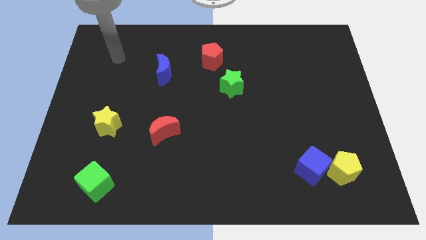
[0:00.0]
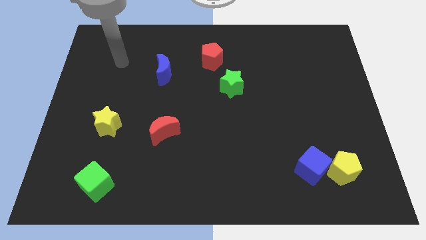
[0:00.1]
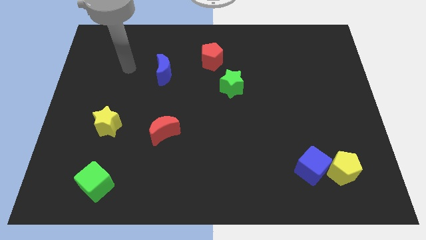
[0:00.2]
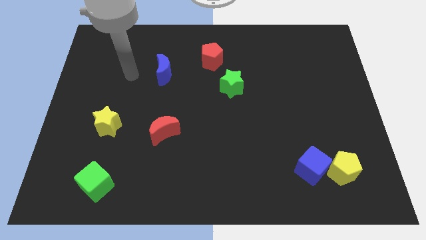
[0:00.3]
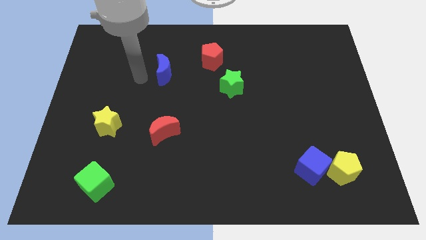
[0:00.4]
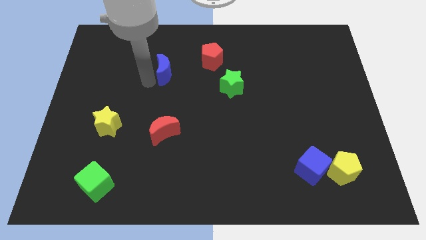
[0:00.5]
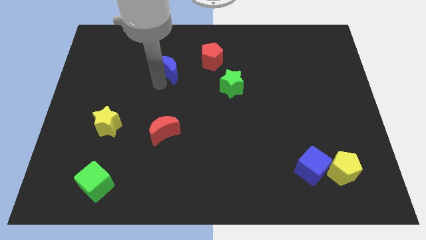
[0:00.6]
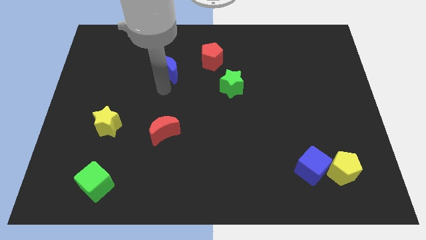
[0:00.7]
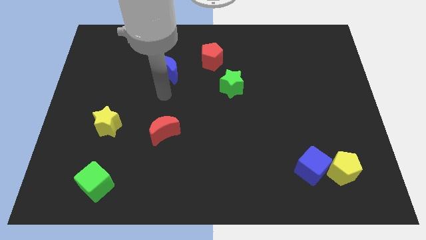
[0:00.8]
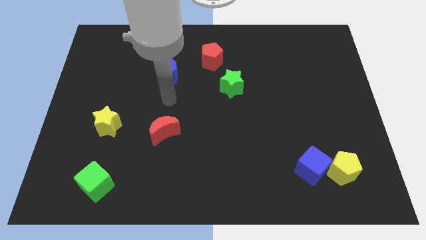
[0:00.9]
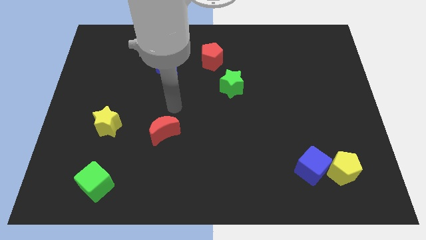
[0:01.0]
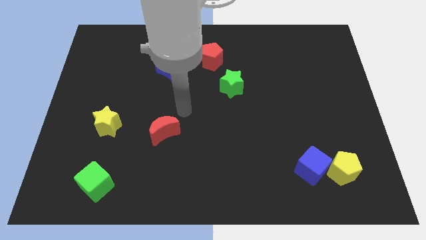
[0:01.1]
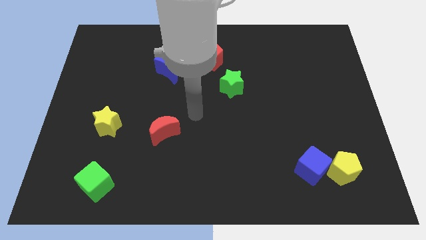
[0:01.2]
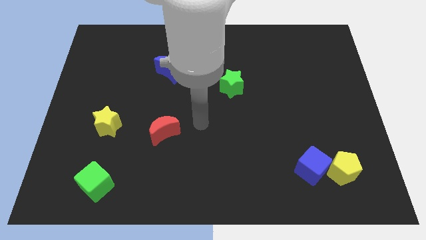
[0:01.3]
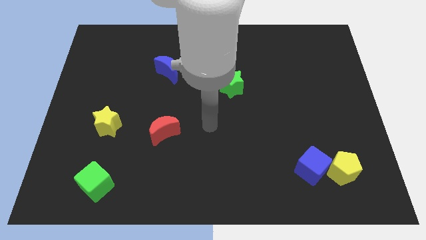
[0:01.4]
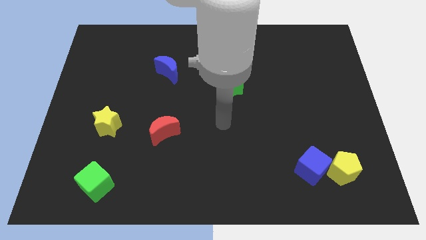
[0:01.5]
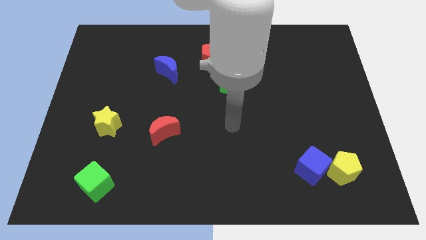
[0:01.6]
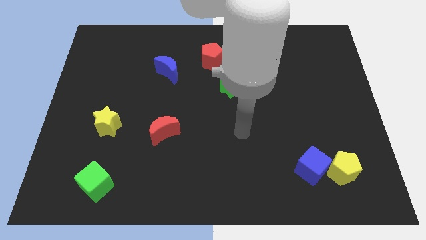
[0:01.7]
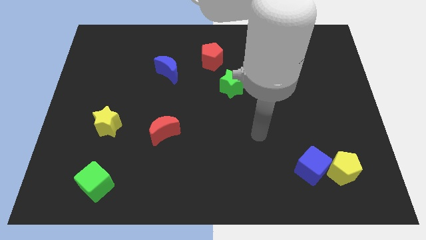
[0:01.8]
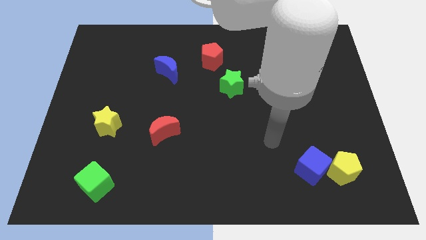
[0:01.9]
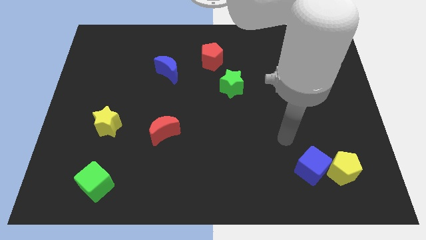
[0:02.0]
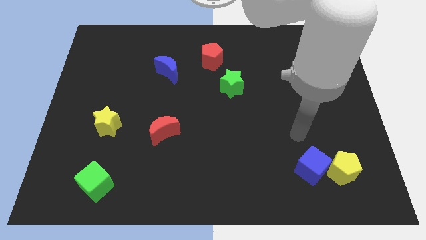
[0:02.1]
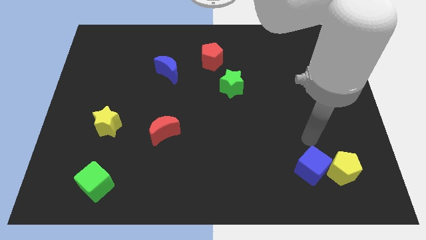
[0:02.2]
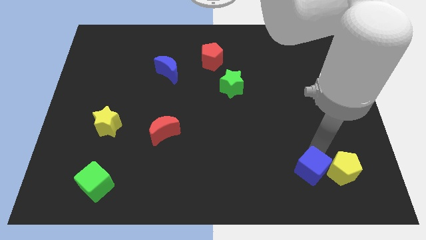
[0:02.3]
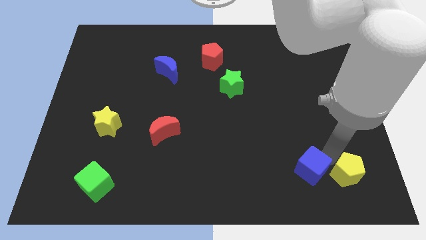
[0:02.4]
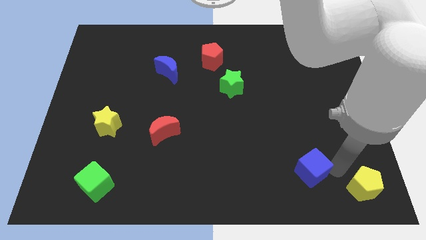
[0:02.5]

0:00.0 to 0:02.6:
move the blue cube away from the yellow pentagon

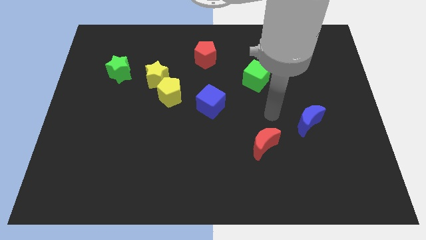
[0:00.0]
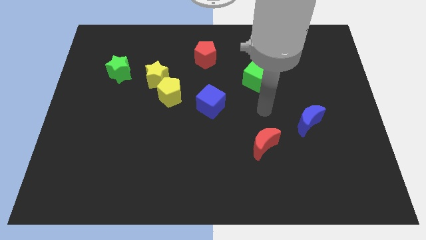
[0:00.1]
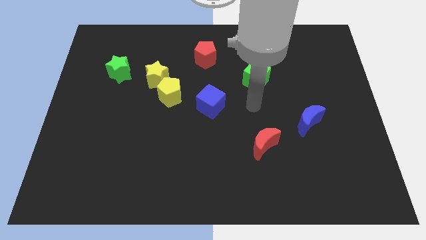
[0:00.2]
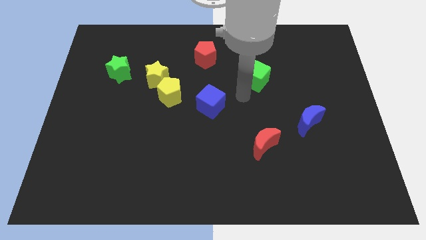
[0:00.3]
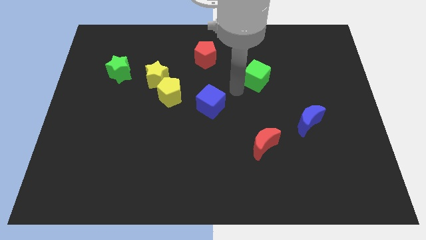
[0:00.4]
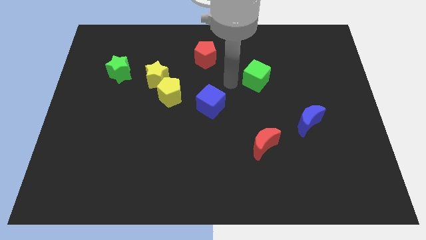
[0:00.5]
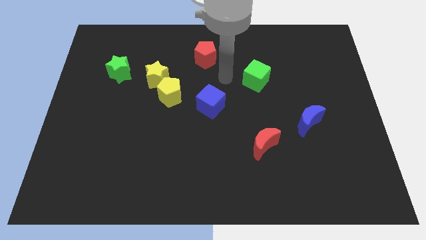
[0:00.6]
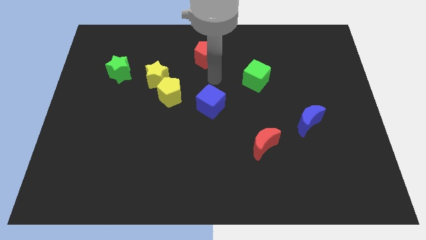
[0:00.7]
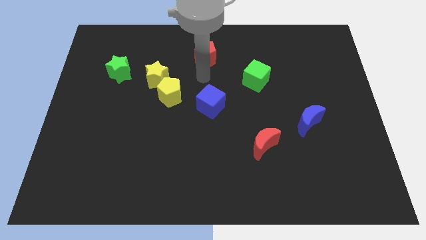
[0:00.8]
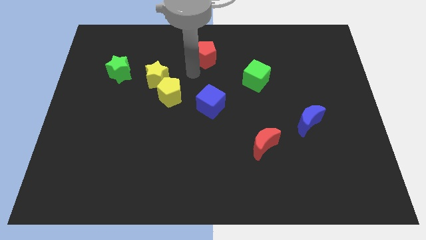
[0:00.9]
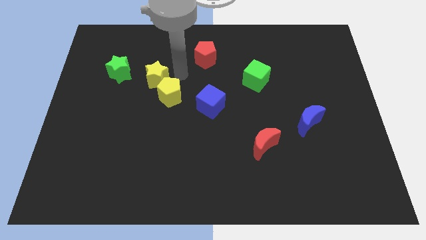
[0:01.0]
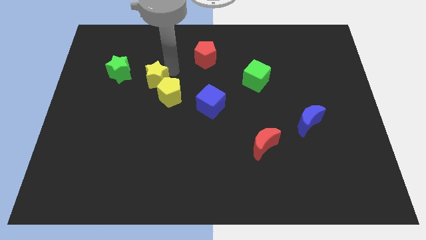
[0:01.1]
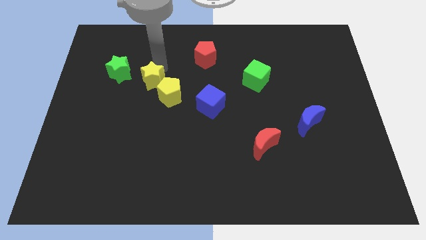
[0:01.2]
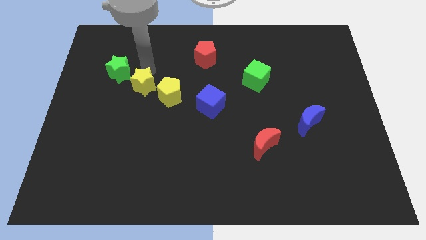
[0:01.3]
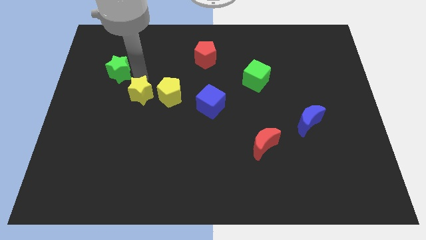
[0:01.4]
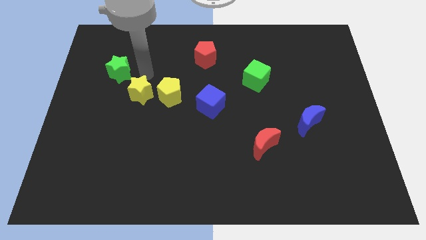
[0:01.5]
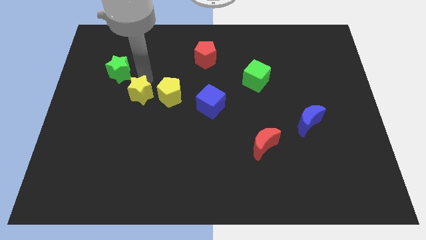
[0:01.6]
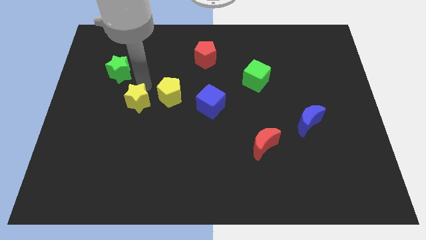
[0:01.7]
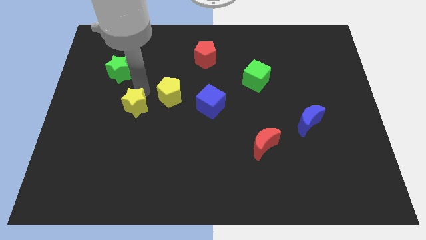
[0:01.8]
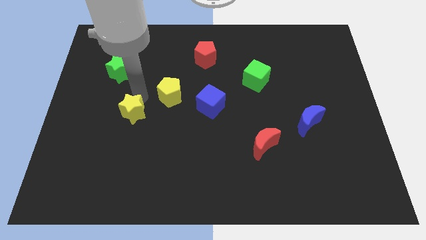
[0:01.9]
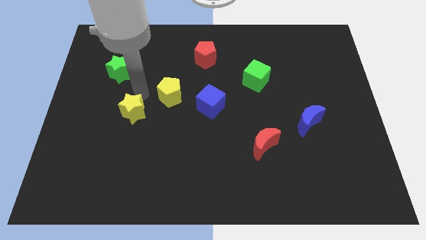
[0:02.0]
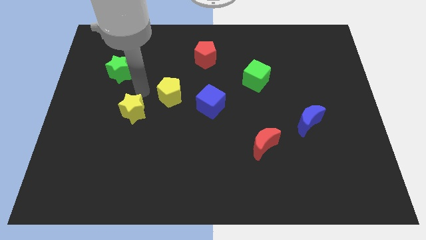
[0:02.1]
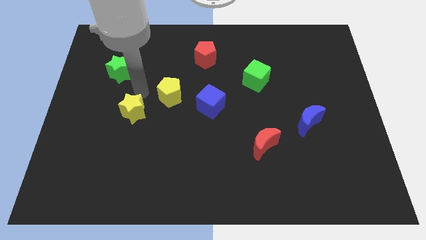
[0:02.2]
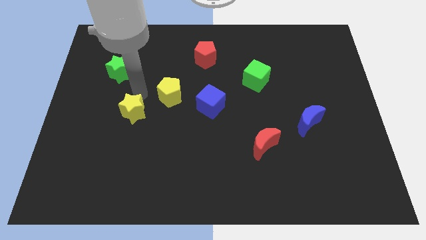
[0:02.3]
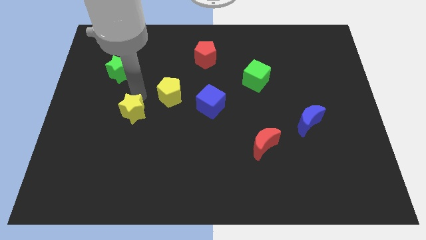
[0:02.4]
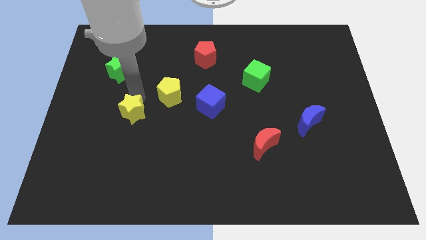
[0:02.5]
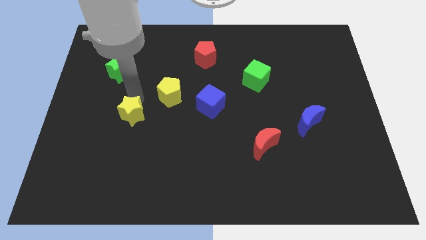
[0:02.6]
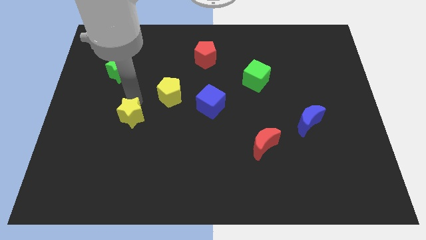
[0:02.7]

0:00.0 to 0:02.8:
pull the yellow star apart from the yellow pentagon and green star

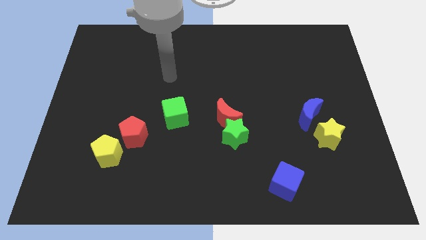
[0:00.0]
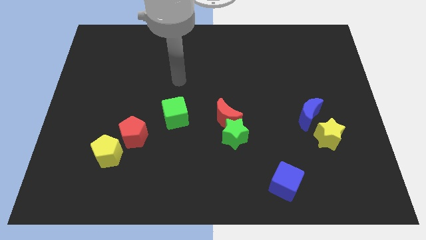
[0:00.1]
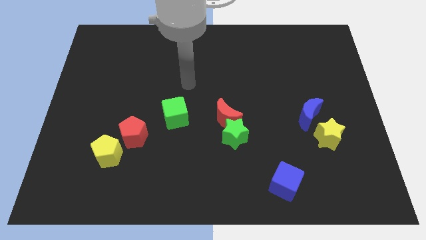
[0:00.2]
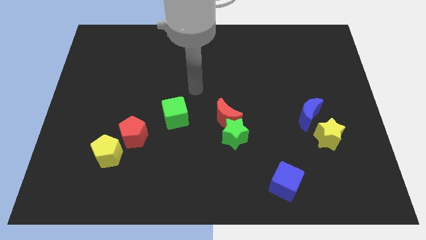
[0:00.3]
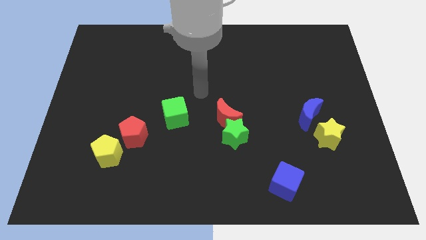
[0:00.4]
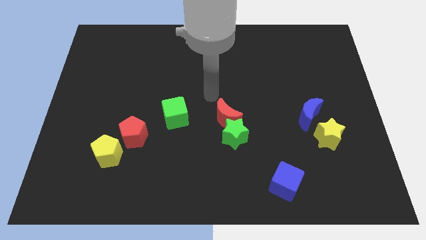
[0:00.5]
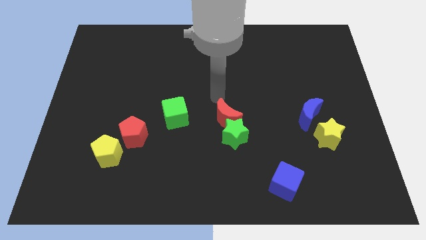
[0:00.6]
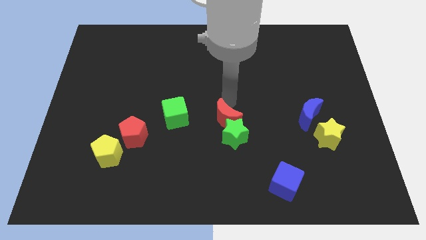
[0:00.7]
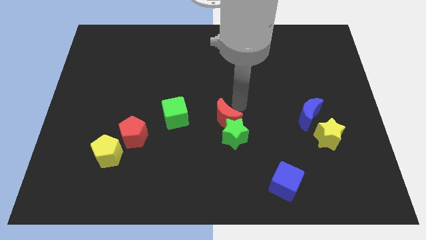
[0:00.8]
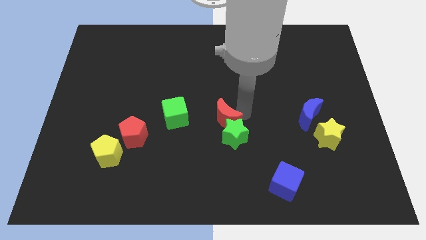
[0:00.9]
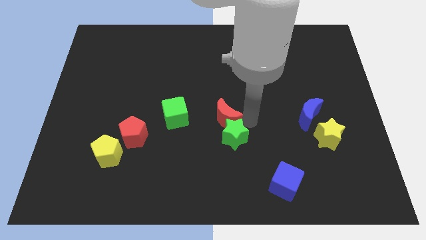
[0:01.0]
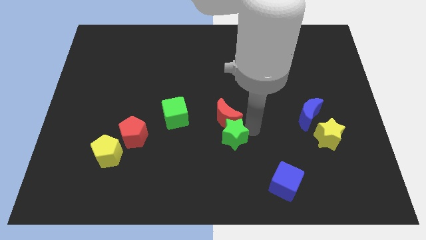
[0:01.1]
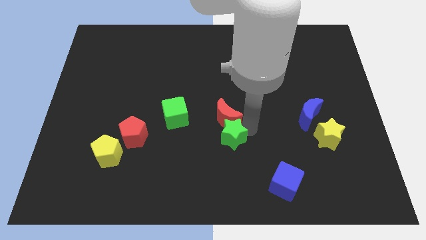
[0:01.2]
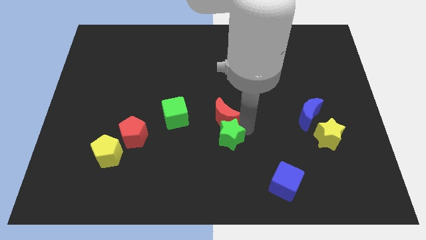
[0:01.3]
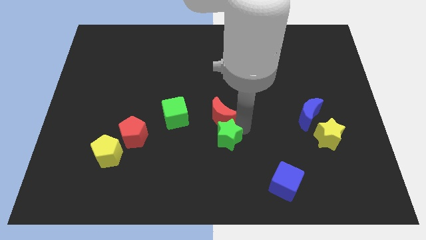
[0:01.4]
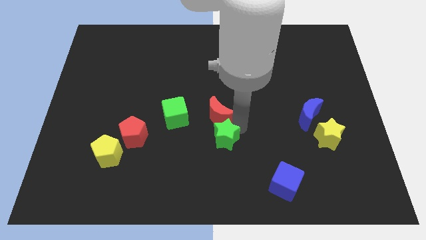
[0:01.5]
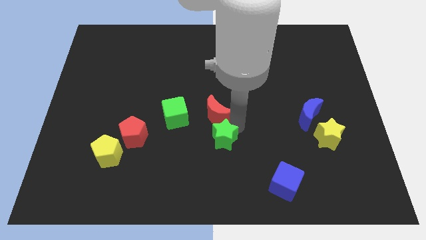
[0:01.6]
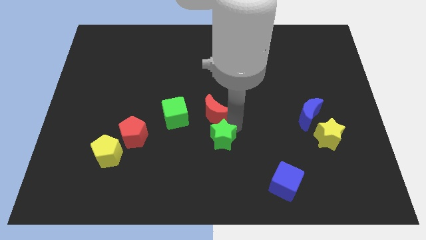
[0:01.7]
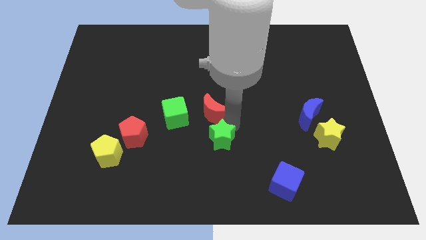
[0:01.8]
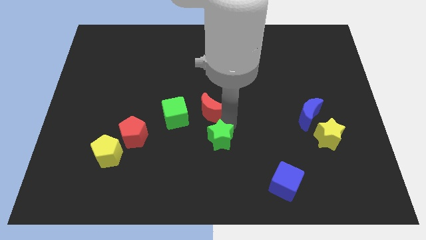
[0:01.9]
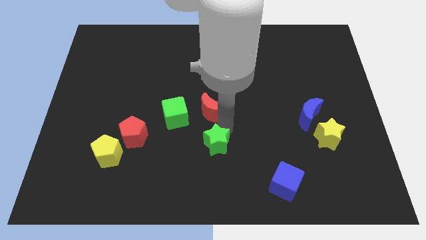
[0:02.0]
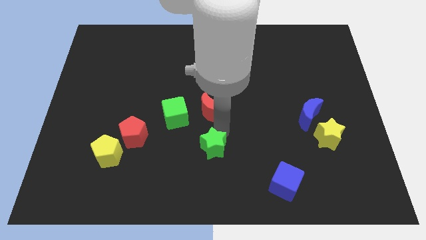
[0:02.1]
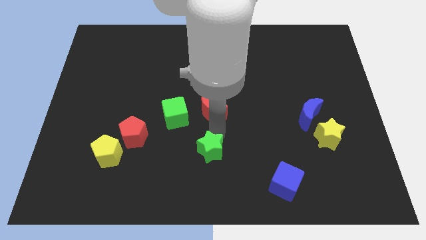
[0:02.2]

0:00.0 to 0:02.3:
pull the red moon apart from the green star

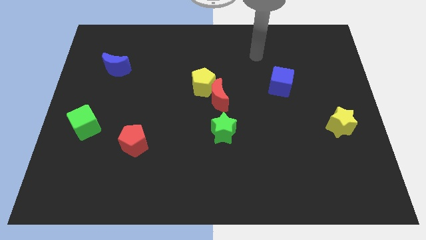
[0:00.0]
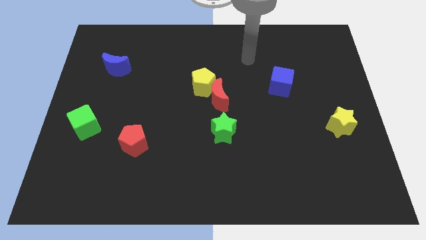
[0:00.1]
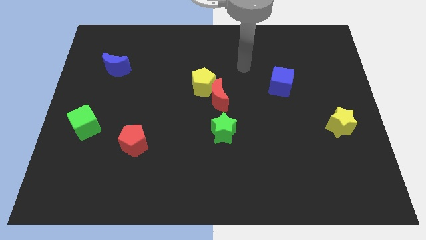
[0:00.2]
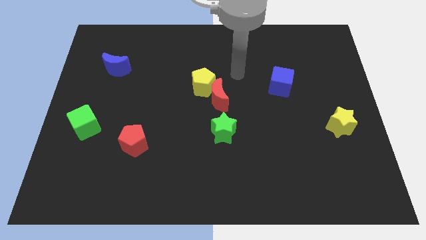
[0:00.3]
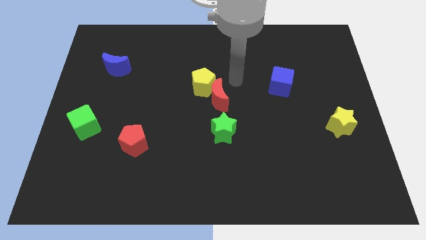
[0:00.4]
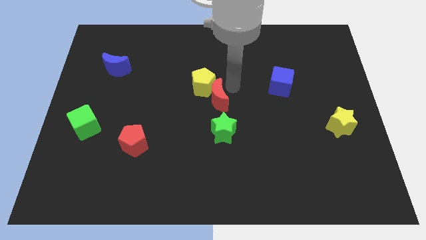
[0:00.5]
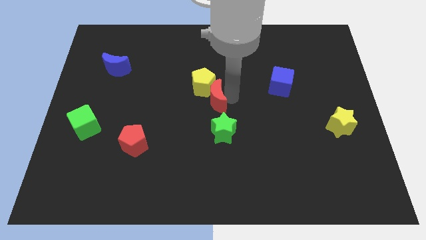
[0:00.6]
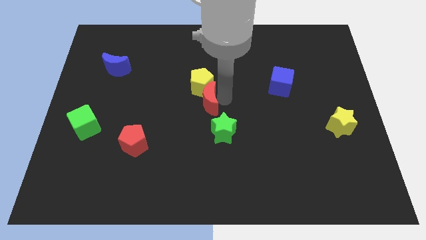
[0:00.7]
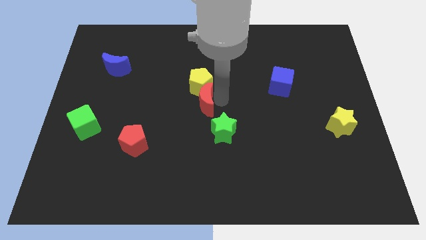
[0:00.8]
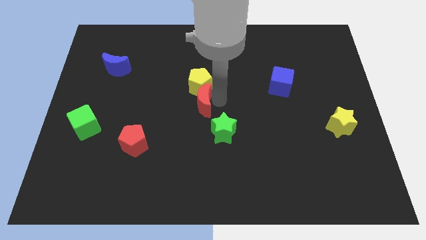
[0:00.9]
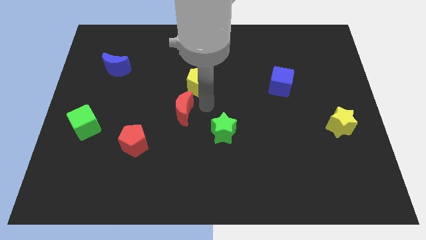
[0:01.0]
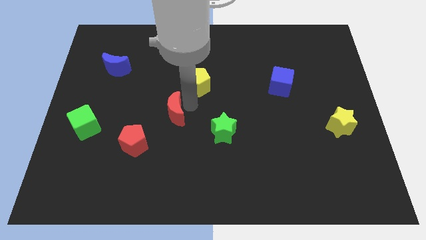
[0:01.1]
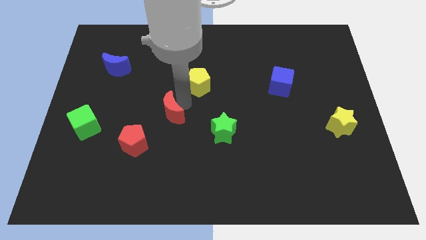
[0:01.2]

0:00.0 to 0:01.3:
pull the yellow pentagon apart from the red moon

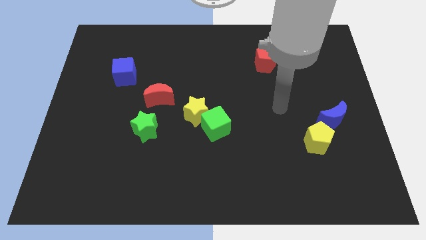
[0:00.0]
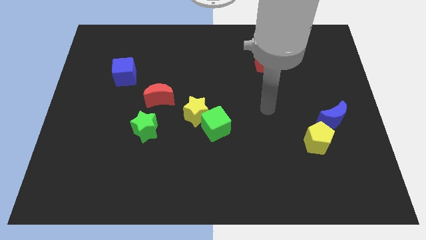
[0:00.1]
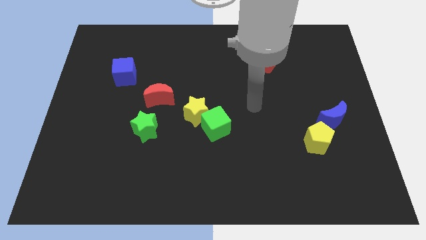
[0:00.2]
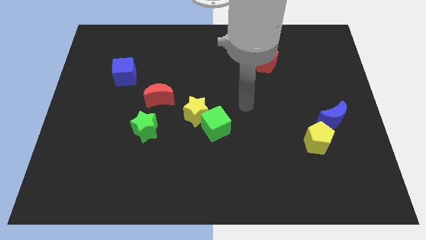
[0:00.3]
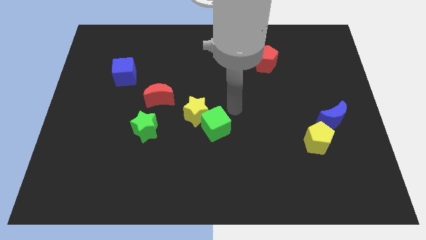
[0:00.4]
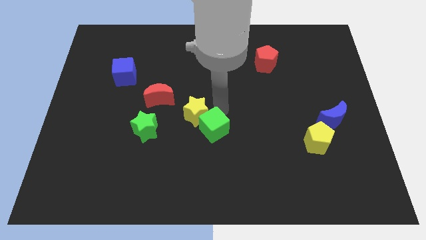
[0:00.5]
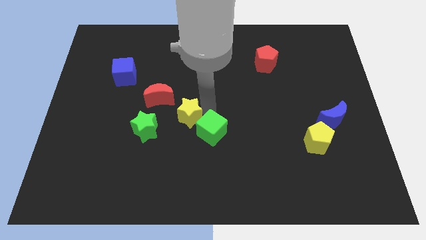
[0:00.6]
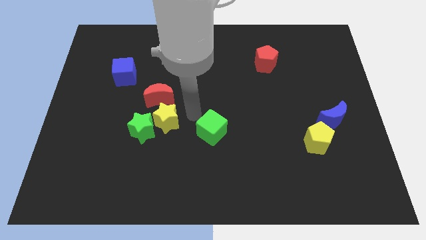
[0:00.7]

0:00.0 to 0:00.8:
separate the green cube from the yellow star
